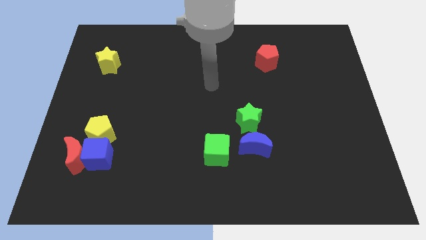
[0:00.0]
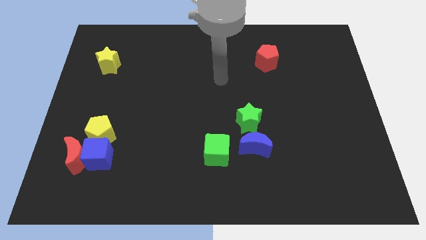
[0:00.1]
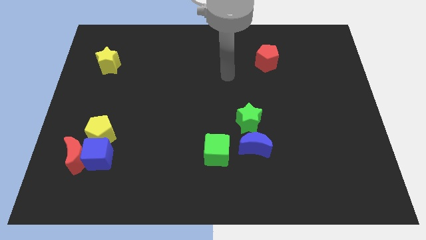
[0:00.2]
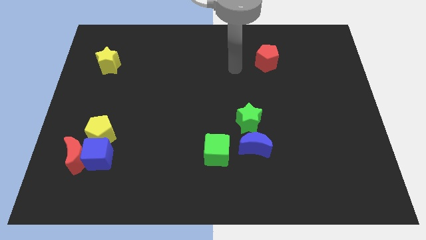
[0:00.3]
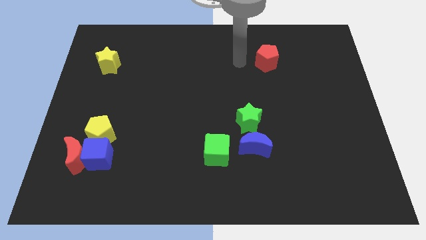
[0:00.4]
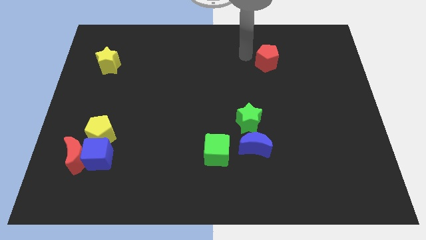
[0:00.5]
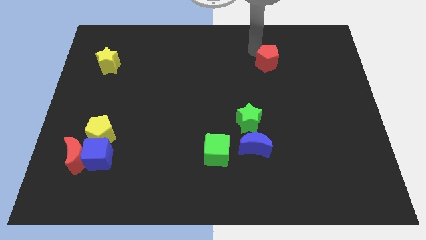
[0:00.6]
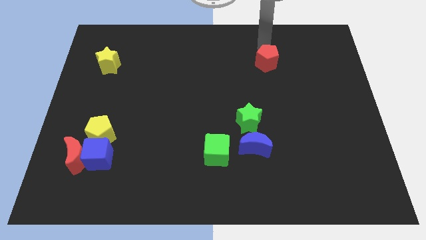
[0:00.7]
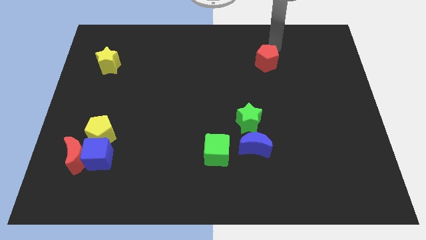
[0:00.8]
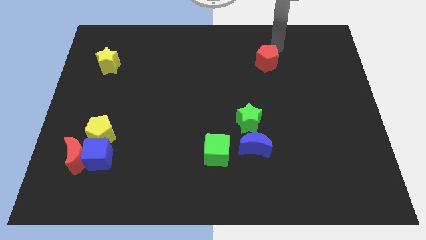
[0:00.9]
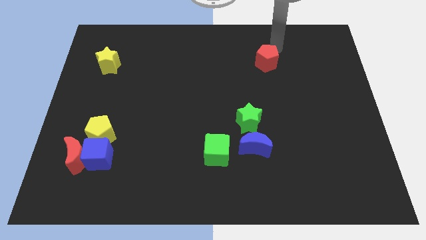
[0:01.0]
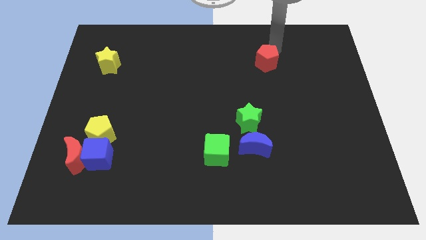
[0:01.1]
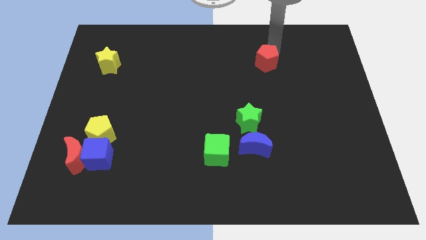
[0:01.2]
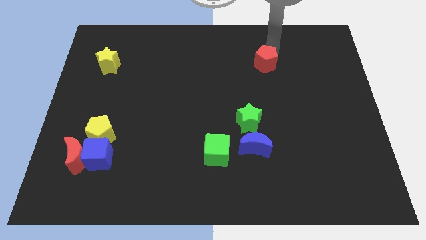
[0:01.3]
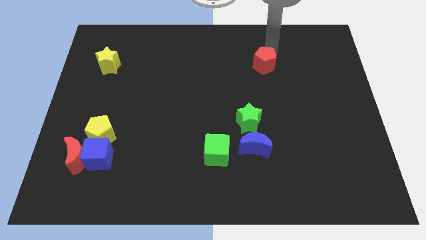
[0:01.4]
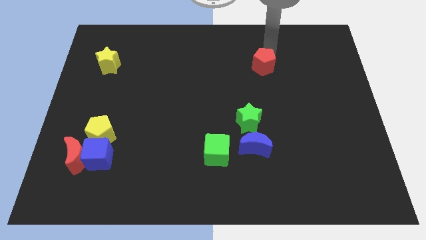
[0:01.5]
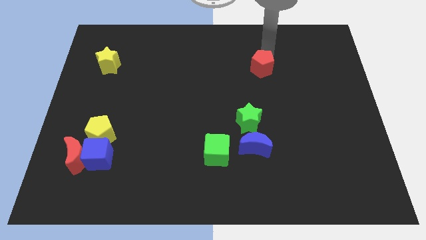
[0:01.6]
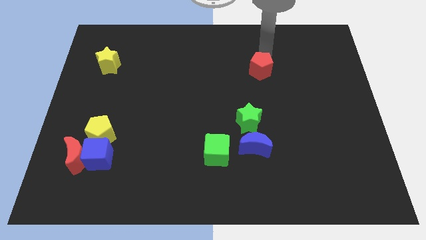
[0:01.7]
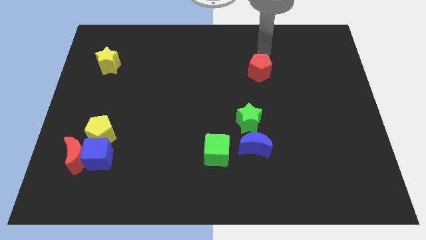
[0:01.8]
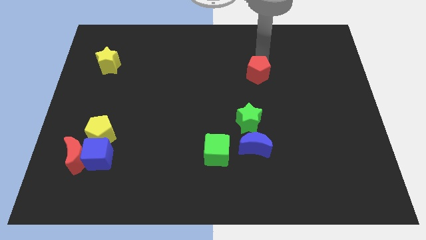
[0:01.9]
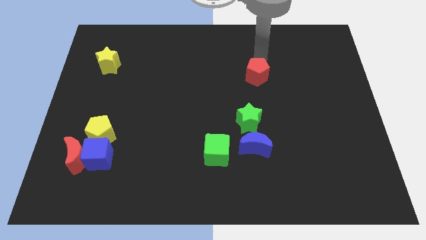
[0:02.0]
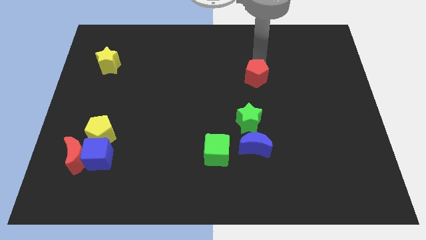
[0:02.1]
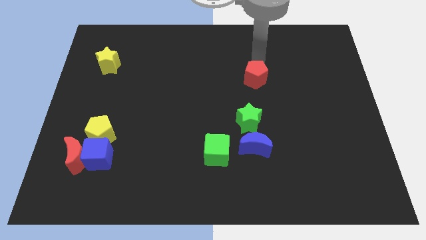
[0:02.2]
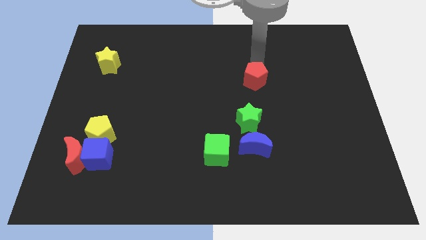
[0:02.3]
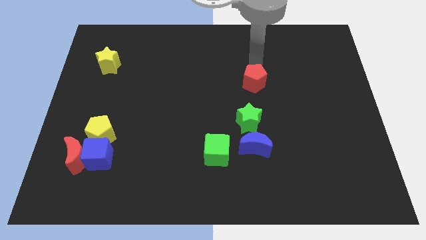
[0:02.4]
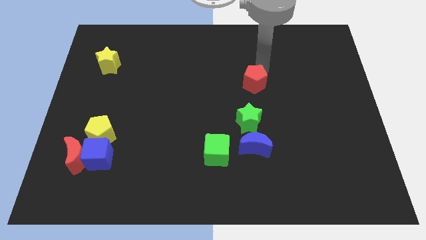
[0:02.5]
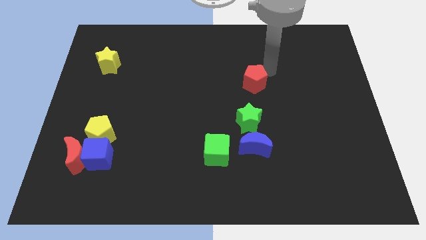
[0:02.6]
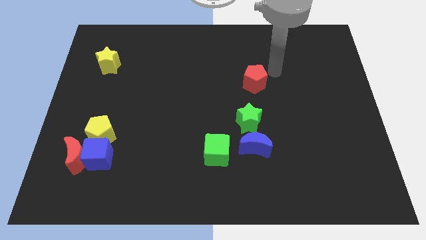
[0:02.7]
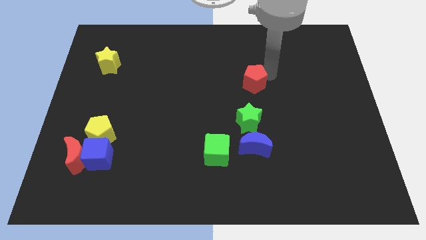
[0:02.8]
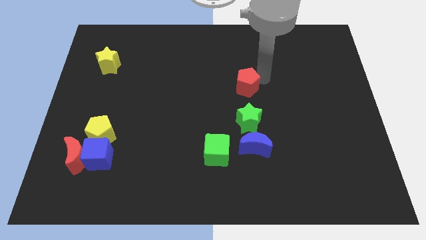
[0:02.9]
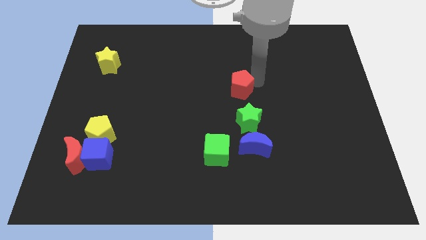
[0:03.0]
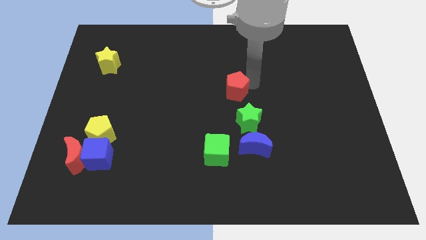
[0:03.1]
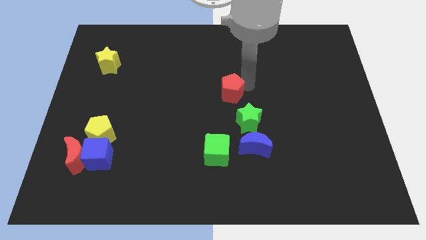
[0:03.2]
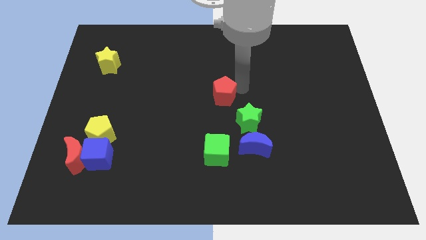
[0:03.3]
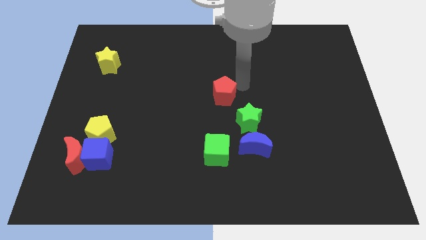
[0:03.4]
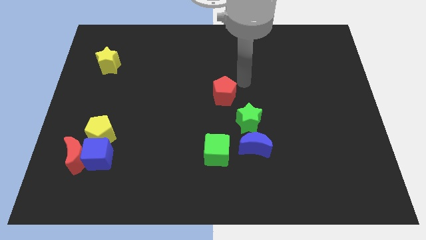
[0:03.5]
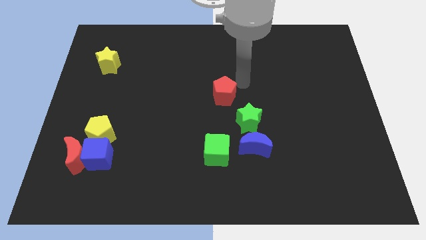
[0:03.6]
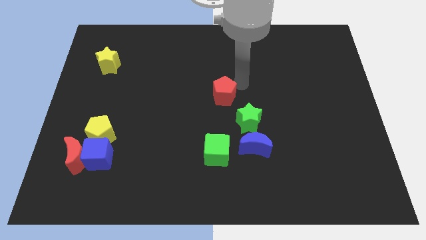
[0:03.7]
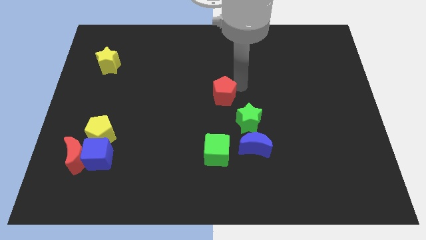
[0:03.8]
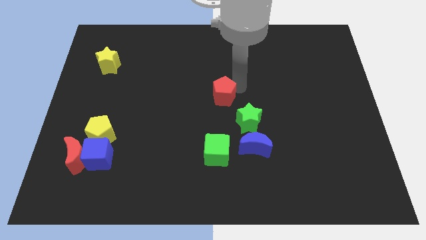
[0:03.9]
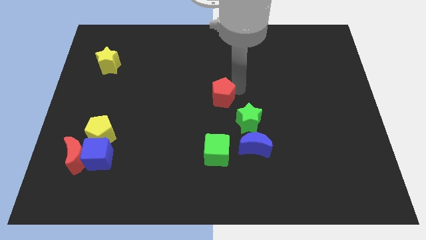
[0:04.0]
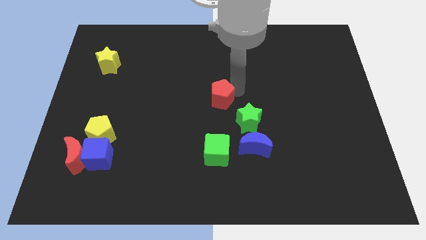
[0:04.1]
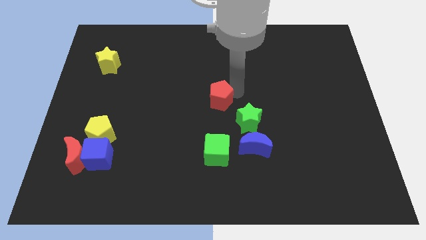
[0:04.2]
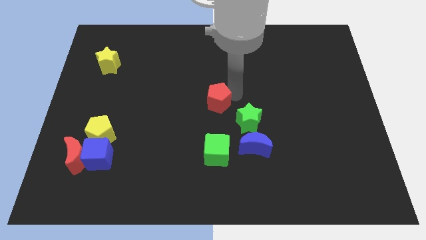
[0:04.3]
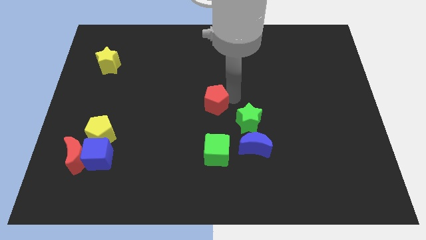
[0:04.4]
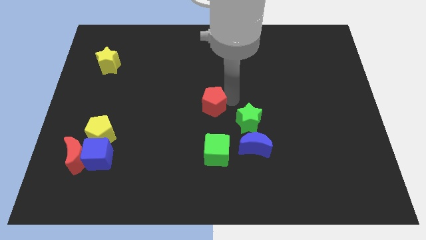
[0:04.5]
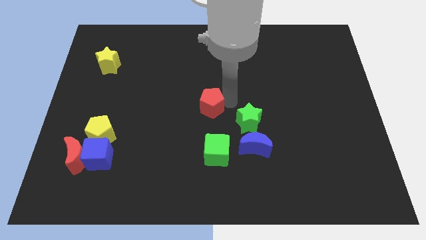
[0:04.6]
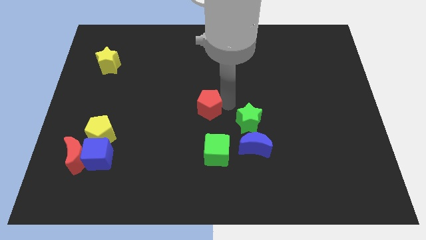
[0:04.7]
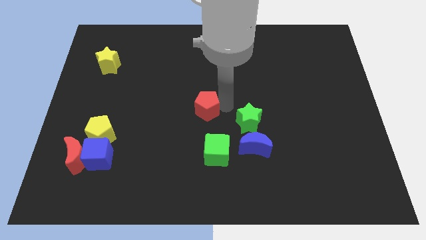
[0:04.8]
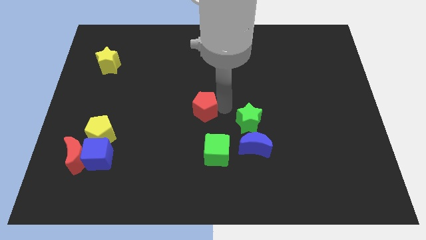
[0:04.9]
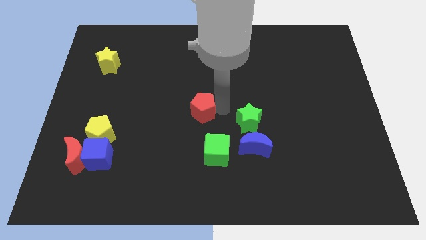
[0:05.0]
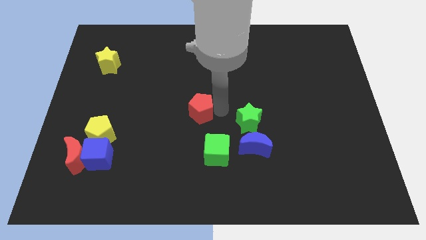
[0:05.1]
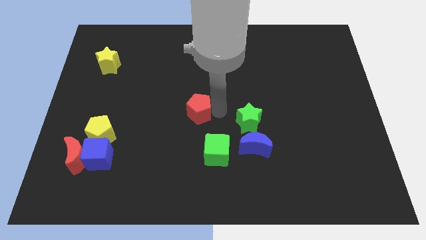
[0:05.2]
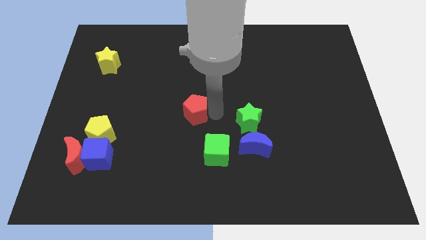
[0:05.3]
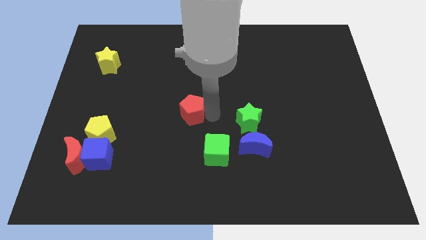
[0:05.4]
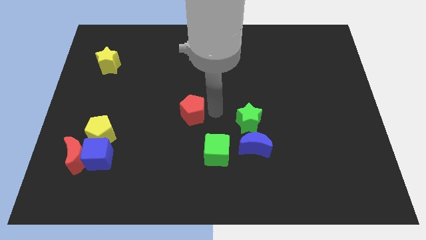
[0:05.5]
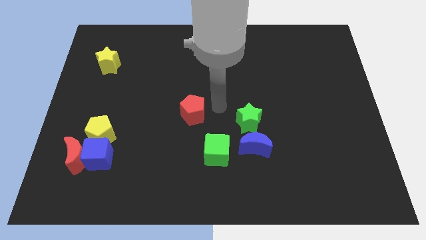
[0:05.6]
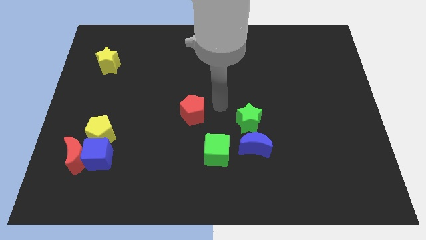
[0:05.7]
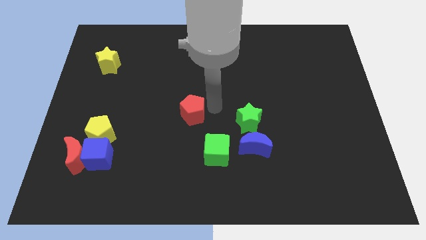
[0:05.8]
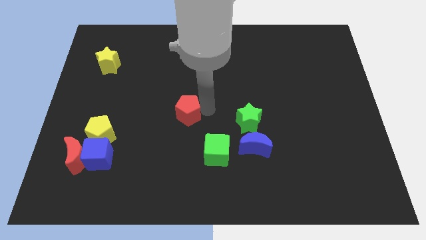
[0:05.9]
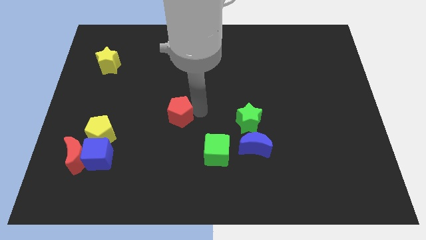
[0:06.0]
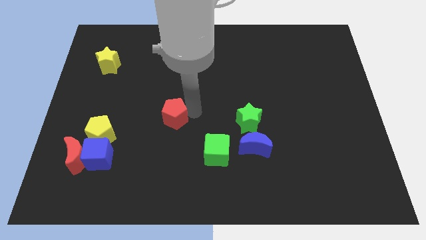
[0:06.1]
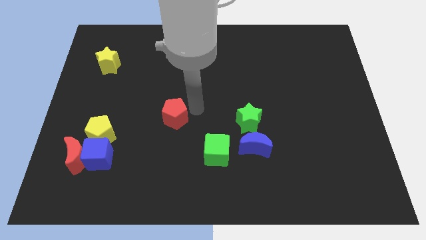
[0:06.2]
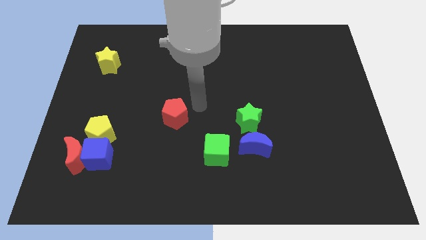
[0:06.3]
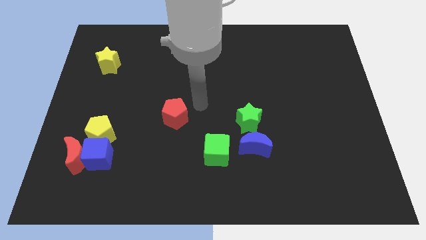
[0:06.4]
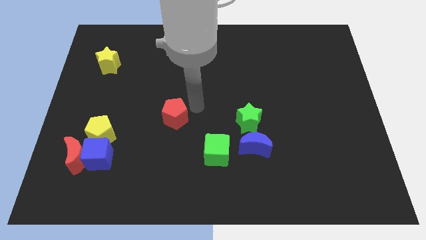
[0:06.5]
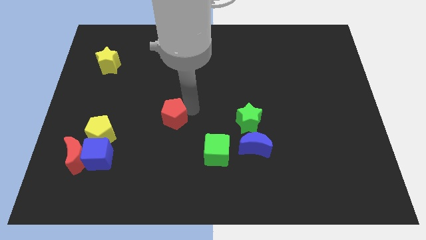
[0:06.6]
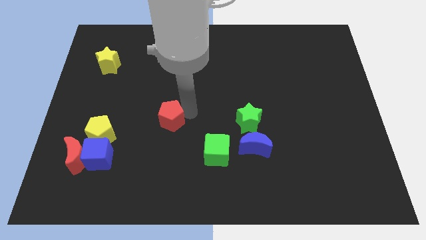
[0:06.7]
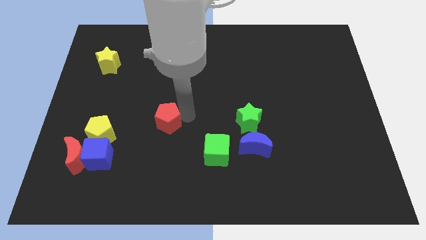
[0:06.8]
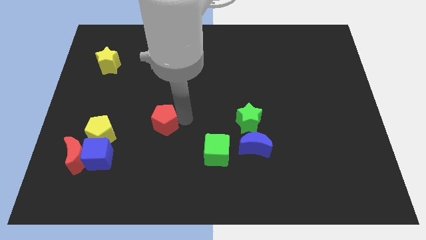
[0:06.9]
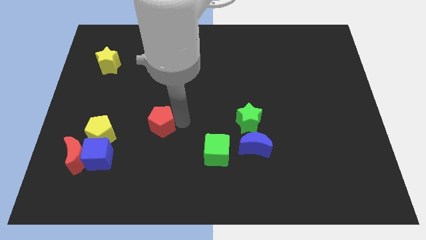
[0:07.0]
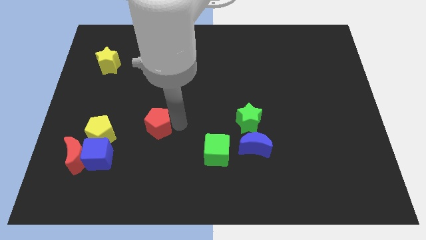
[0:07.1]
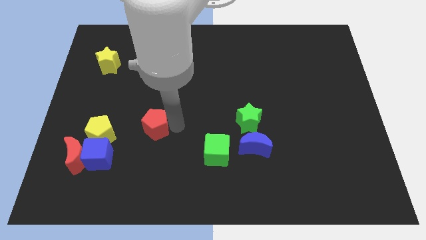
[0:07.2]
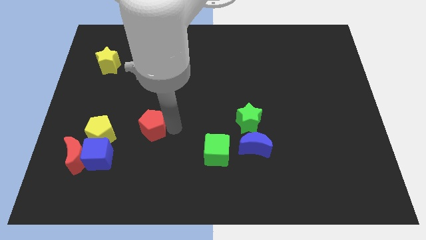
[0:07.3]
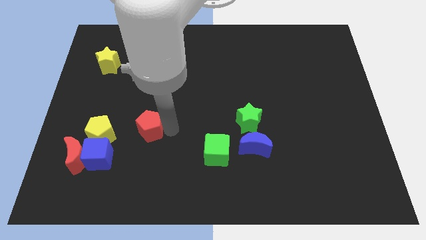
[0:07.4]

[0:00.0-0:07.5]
put the red pentagon to the top right side of the blue cube
